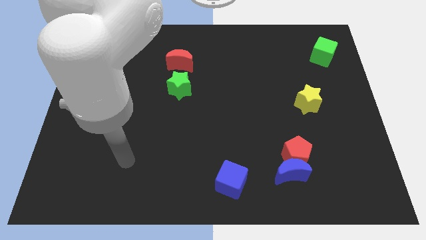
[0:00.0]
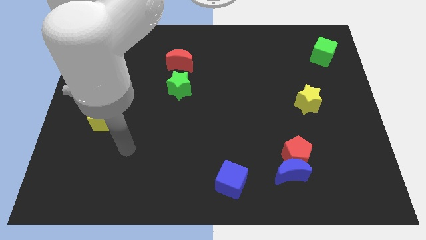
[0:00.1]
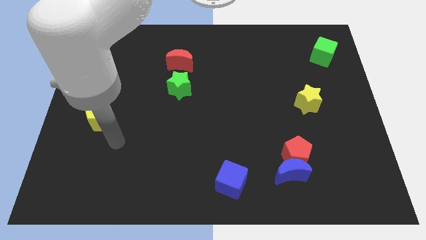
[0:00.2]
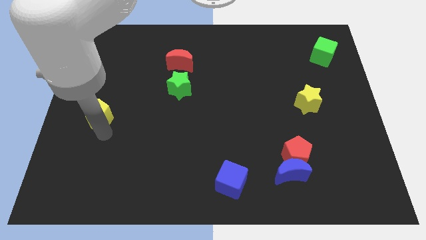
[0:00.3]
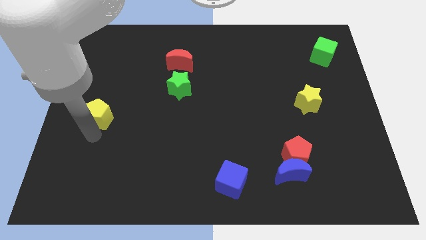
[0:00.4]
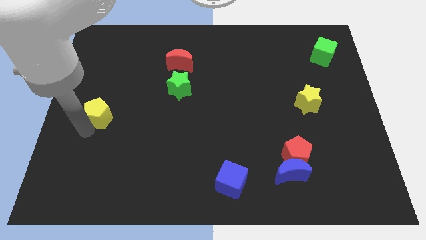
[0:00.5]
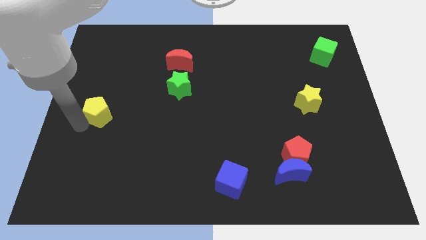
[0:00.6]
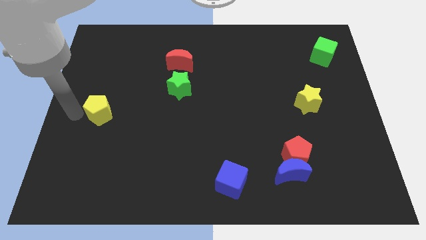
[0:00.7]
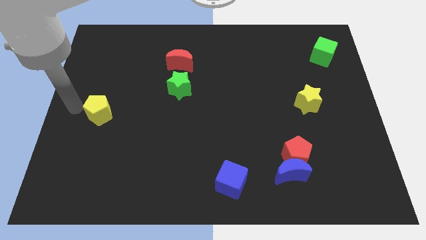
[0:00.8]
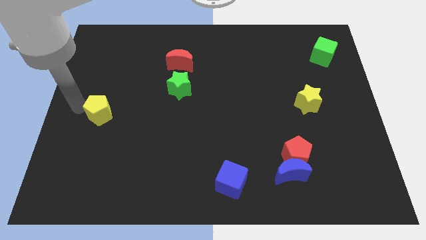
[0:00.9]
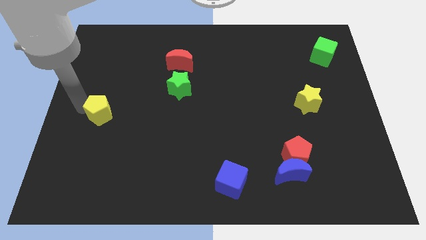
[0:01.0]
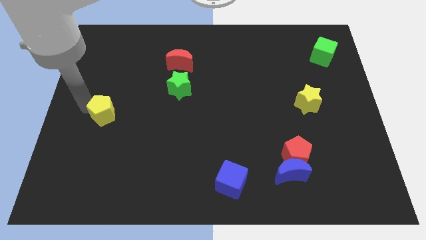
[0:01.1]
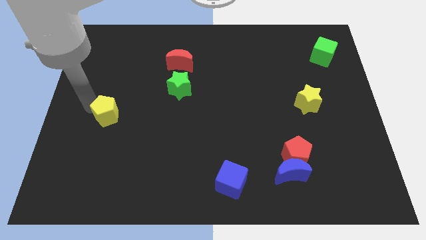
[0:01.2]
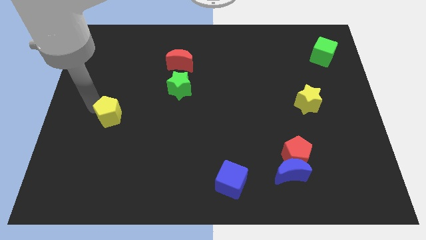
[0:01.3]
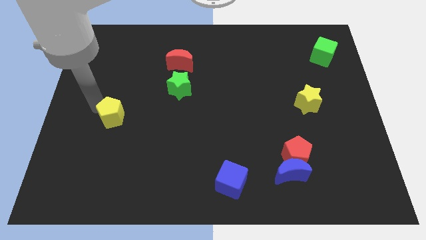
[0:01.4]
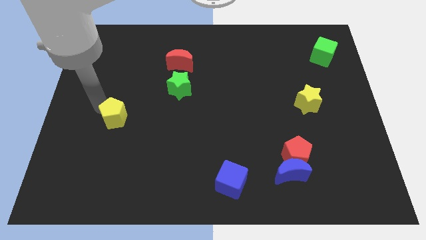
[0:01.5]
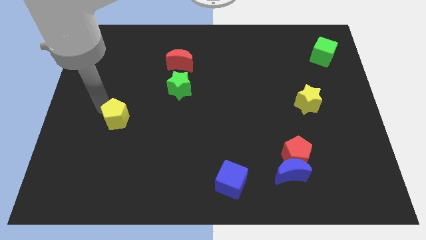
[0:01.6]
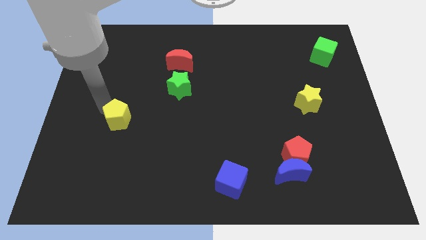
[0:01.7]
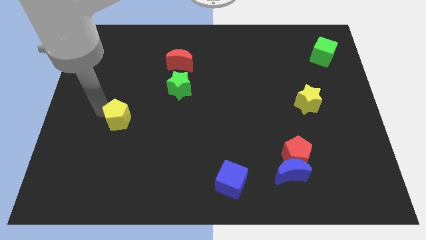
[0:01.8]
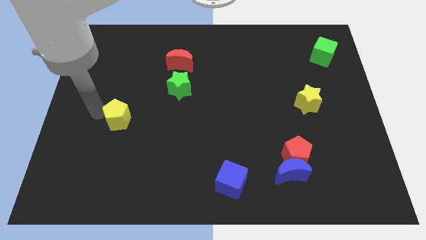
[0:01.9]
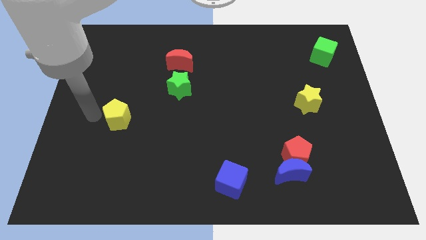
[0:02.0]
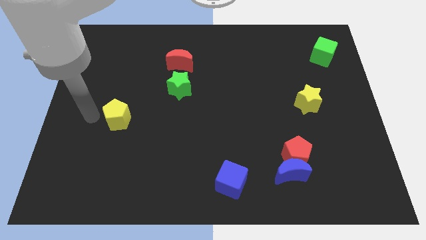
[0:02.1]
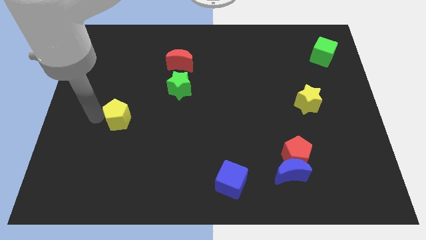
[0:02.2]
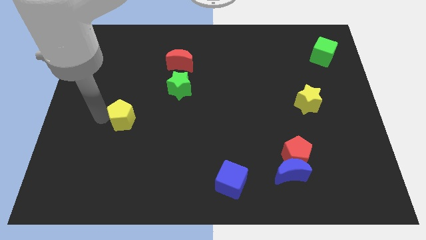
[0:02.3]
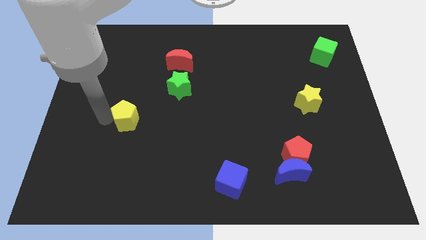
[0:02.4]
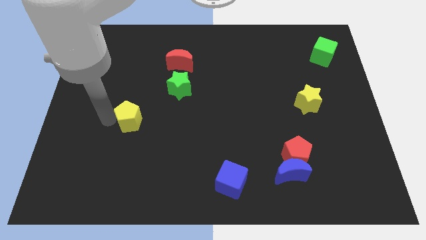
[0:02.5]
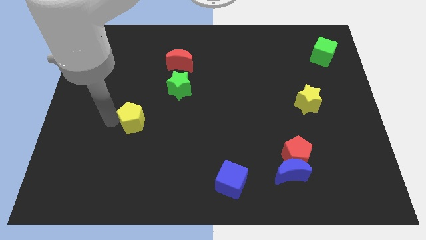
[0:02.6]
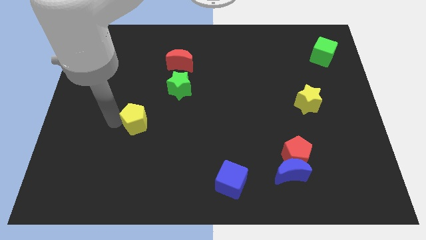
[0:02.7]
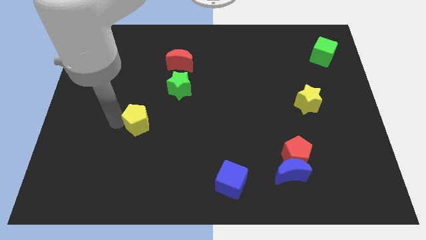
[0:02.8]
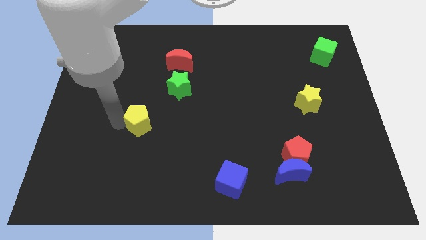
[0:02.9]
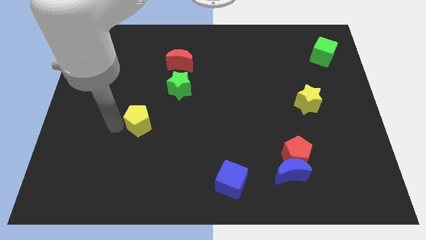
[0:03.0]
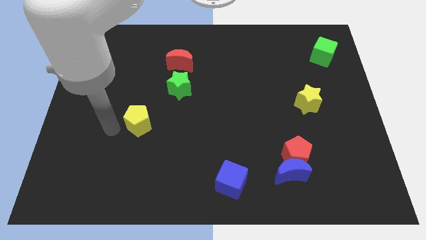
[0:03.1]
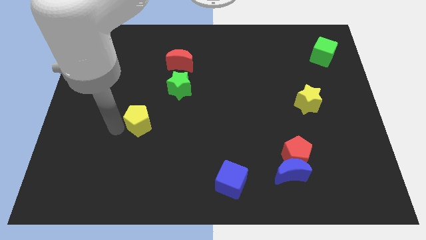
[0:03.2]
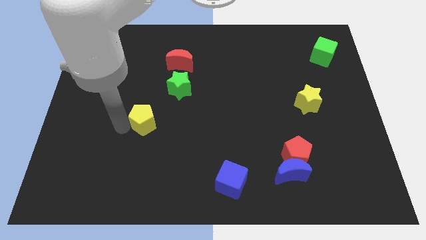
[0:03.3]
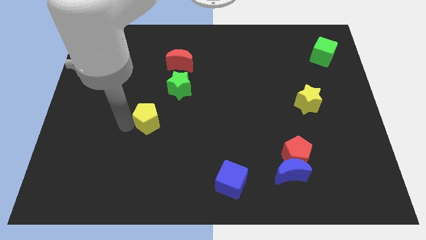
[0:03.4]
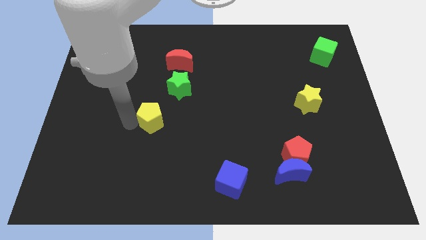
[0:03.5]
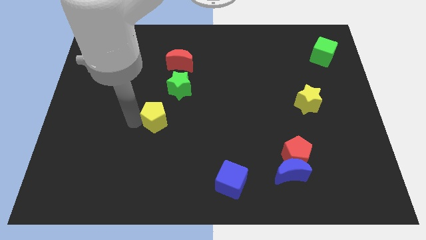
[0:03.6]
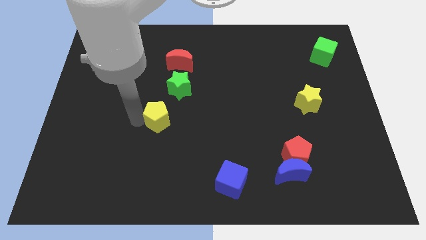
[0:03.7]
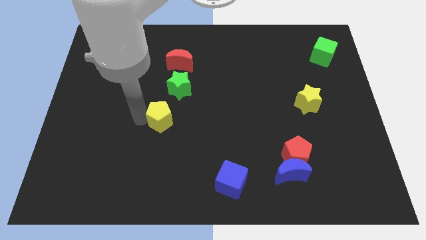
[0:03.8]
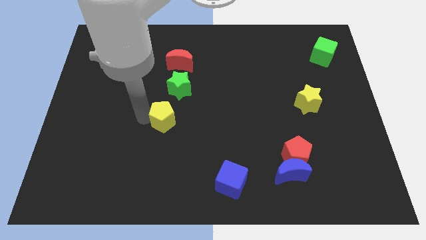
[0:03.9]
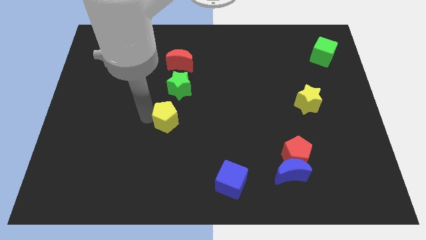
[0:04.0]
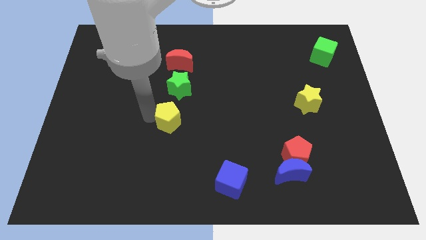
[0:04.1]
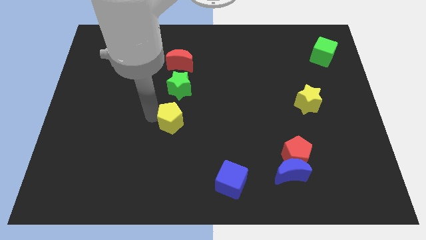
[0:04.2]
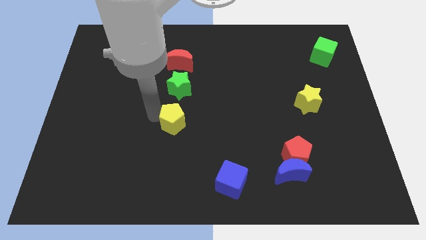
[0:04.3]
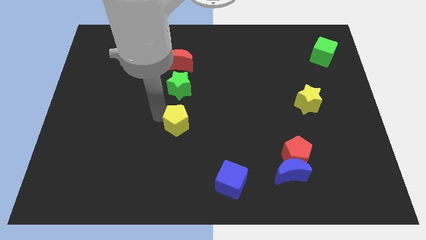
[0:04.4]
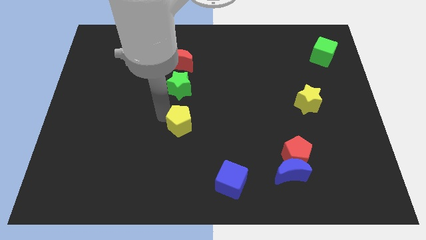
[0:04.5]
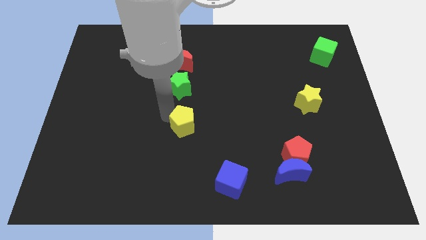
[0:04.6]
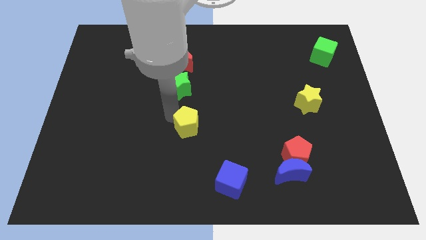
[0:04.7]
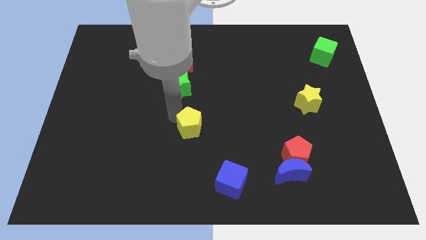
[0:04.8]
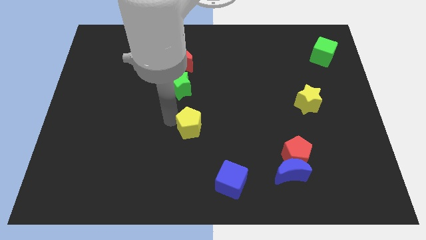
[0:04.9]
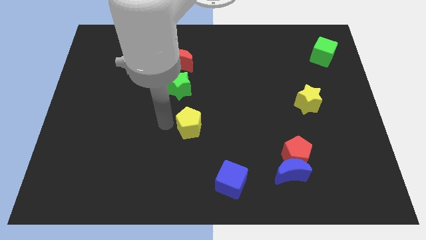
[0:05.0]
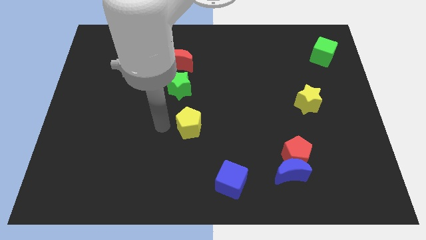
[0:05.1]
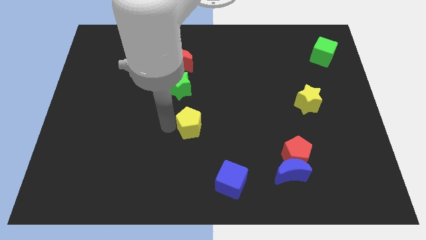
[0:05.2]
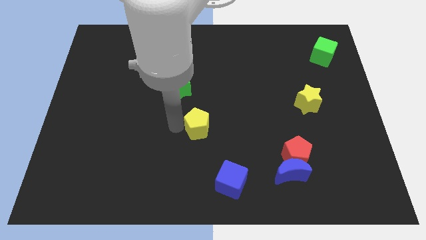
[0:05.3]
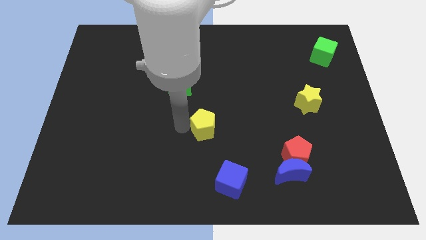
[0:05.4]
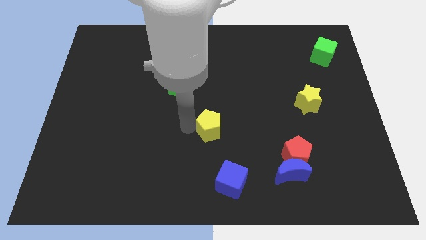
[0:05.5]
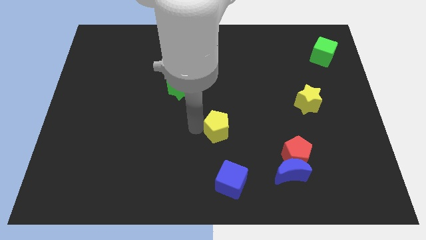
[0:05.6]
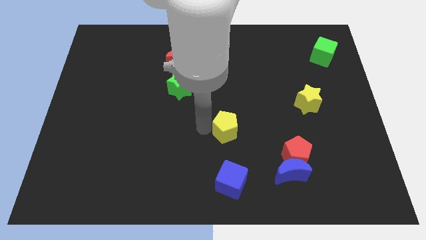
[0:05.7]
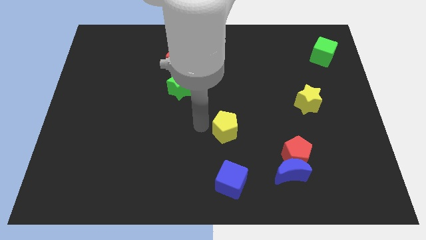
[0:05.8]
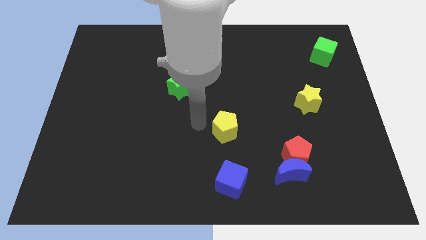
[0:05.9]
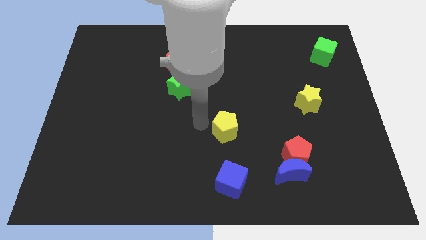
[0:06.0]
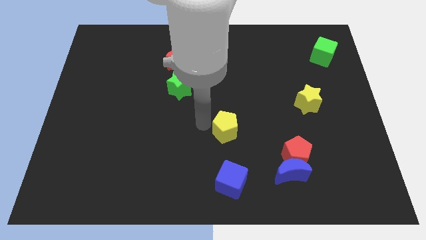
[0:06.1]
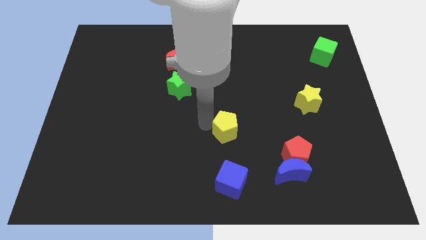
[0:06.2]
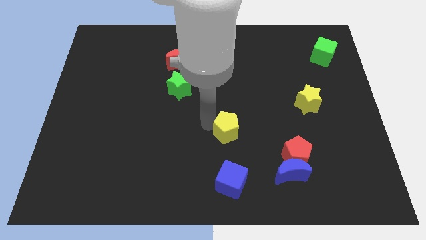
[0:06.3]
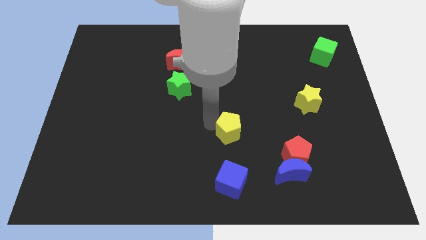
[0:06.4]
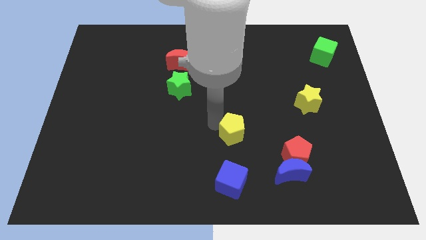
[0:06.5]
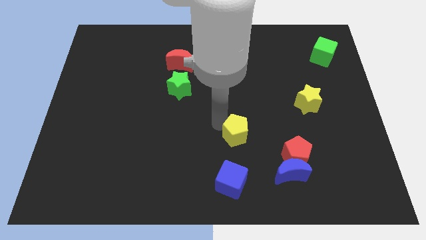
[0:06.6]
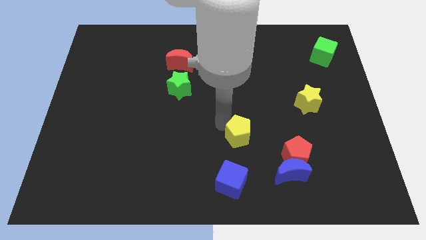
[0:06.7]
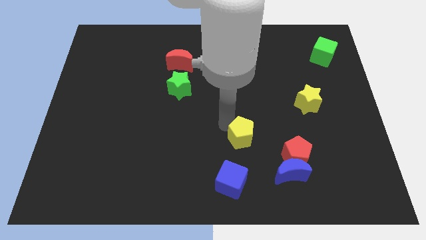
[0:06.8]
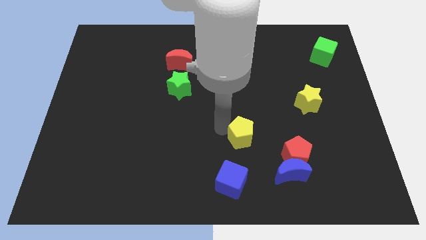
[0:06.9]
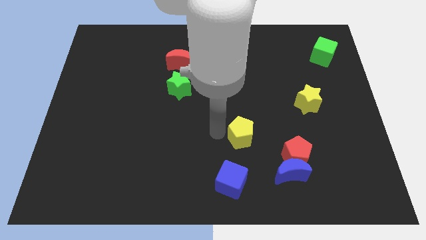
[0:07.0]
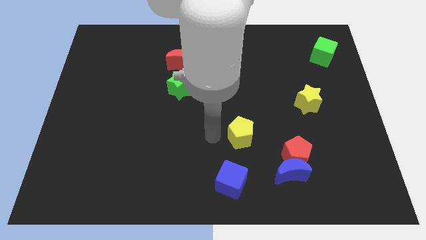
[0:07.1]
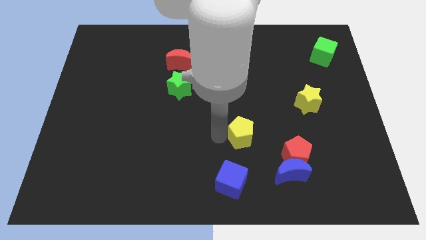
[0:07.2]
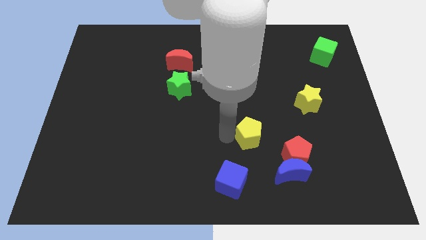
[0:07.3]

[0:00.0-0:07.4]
push the yellow pentagon diagonally up and to the left of the red pentagon
